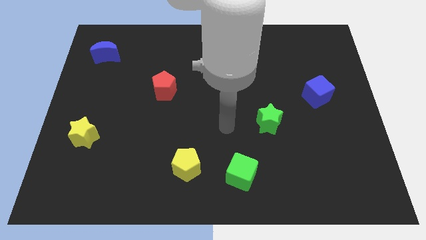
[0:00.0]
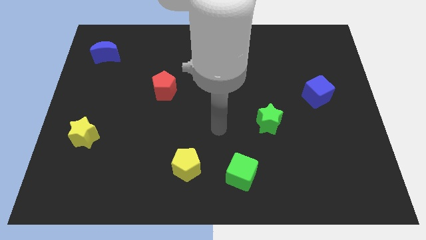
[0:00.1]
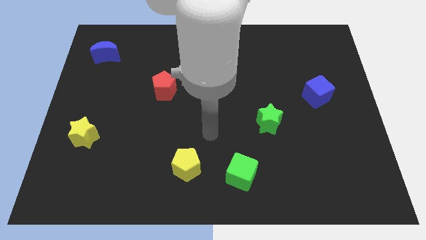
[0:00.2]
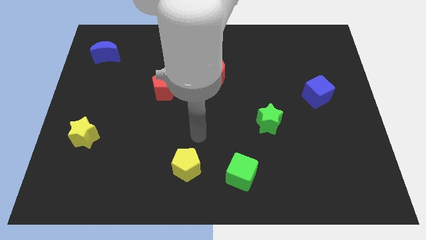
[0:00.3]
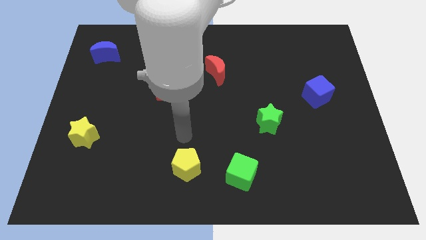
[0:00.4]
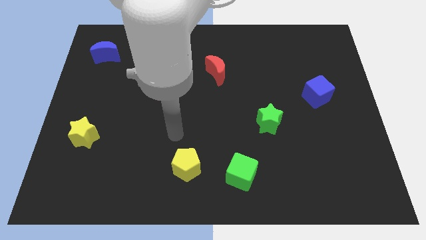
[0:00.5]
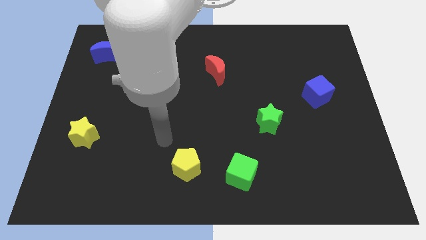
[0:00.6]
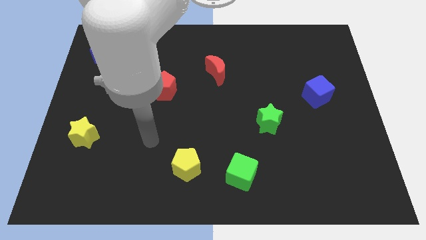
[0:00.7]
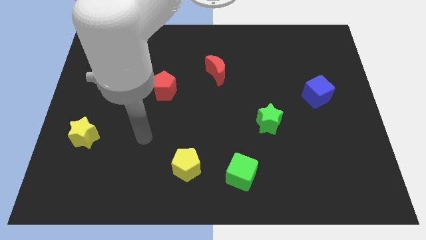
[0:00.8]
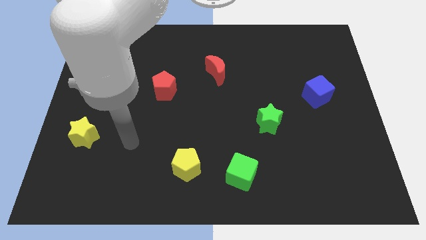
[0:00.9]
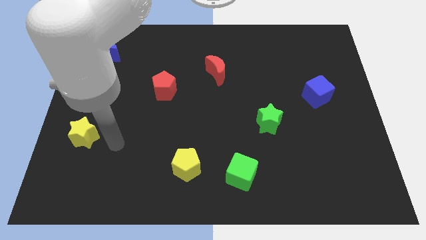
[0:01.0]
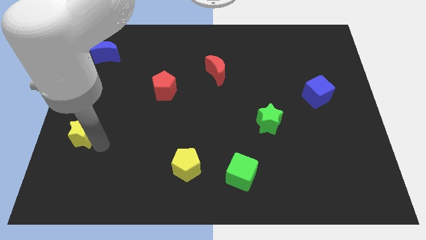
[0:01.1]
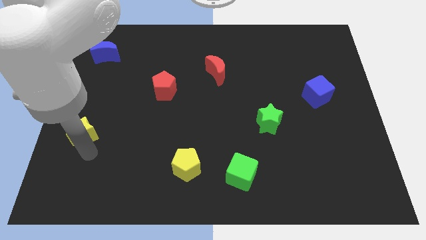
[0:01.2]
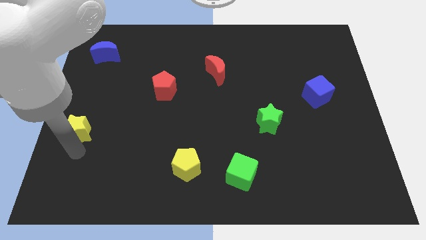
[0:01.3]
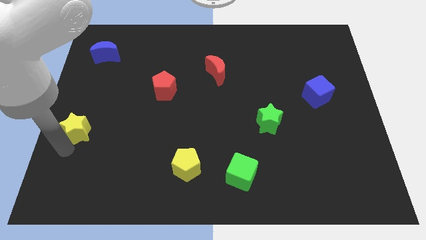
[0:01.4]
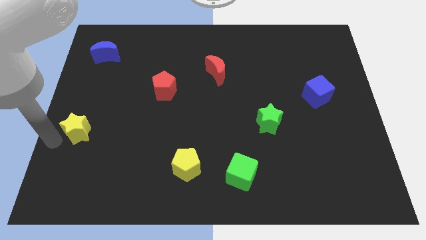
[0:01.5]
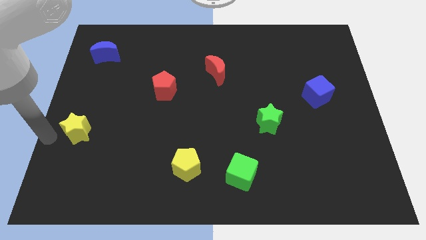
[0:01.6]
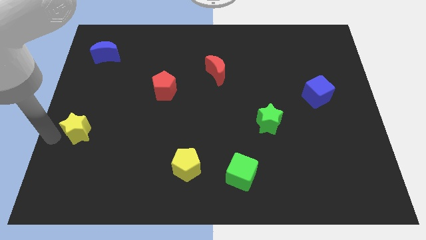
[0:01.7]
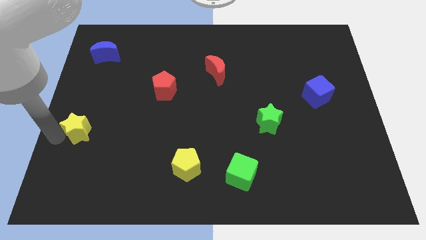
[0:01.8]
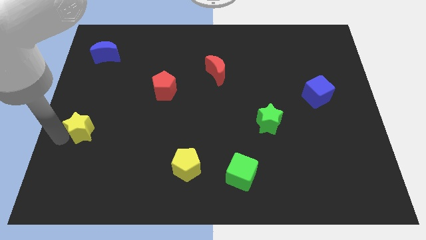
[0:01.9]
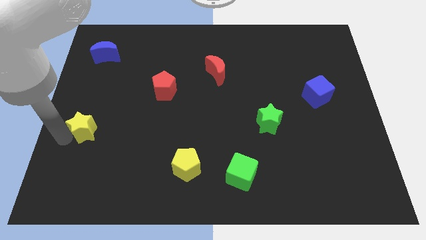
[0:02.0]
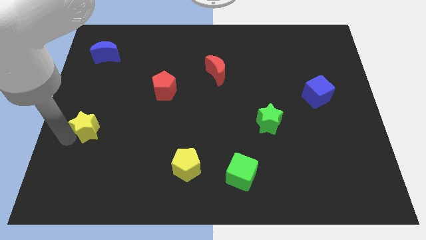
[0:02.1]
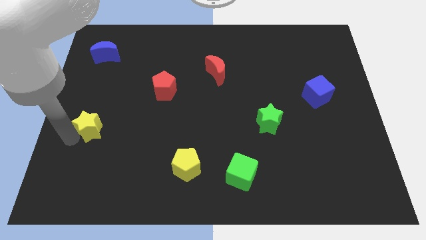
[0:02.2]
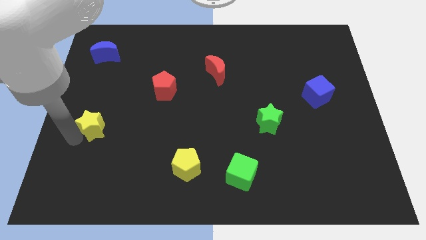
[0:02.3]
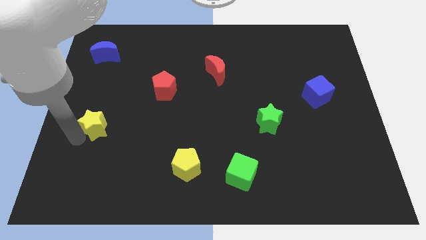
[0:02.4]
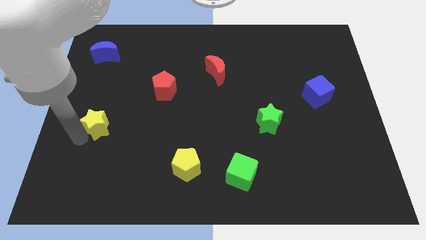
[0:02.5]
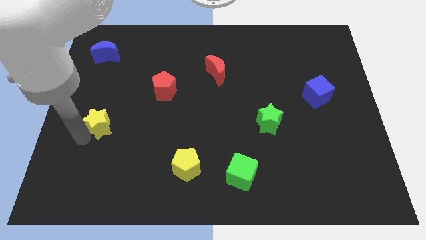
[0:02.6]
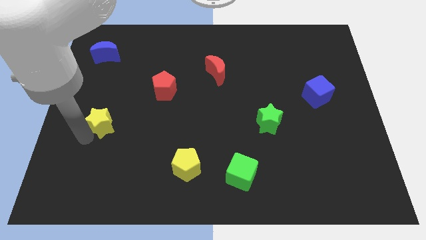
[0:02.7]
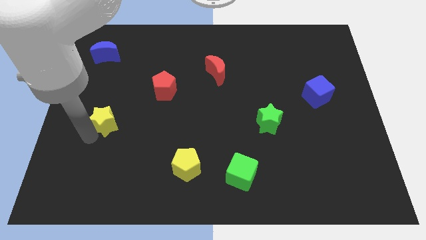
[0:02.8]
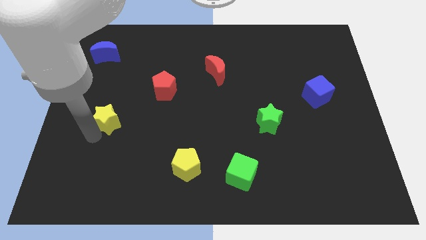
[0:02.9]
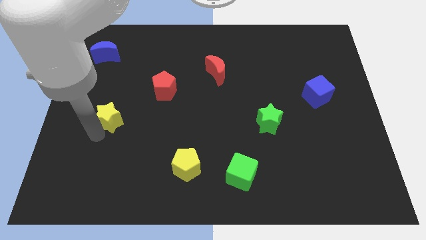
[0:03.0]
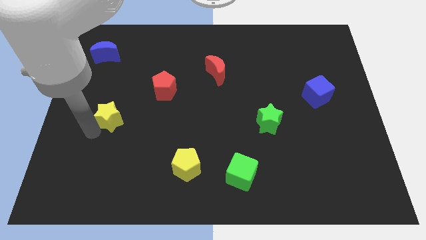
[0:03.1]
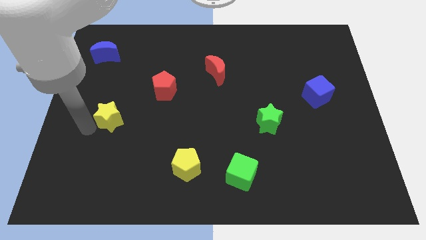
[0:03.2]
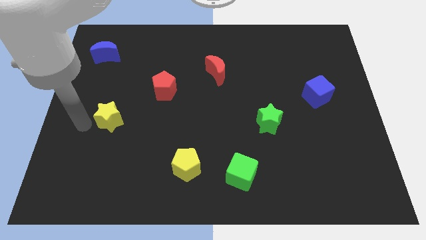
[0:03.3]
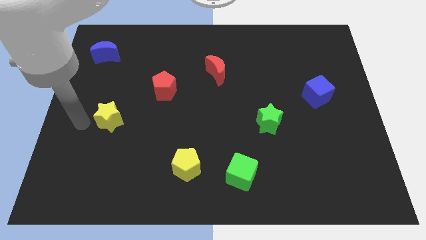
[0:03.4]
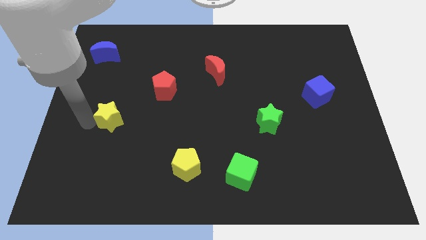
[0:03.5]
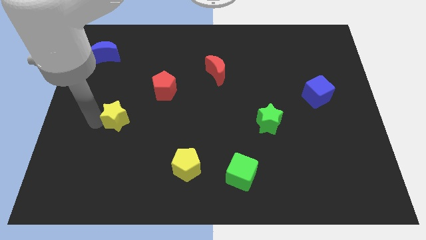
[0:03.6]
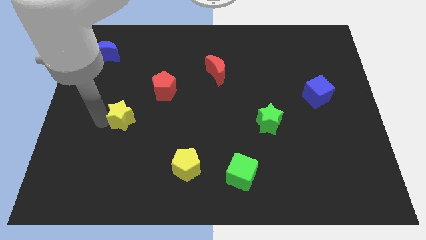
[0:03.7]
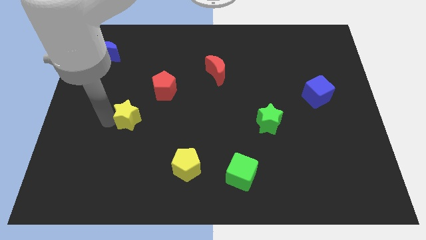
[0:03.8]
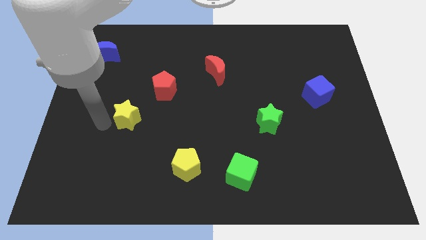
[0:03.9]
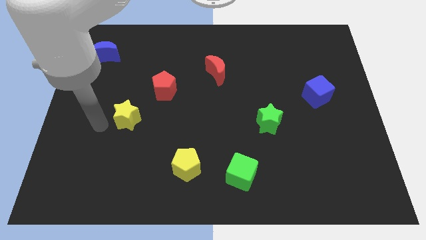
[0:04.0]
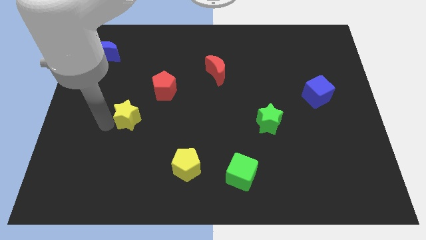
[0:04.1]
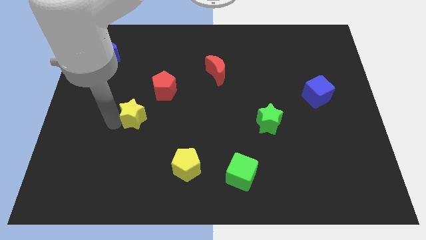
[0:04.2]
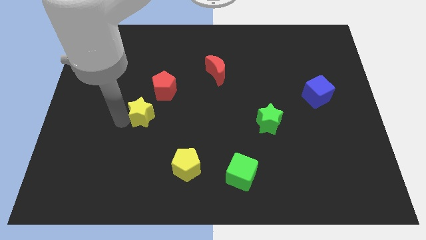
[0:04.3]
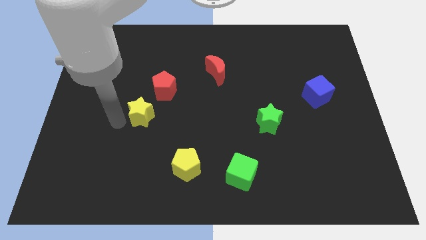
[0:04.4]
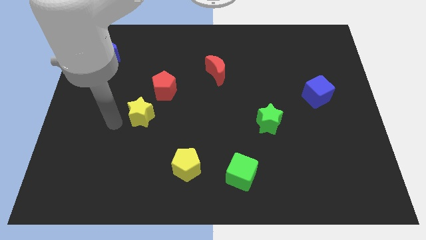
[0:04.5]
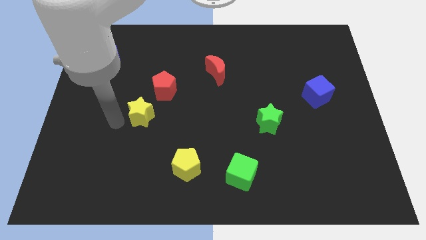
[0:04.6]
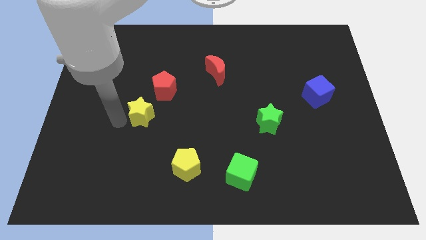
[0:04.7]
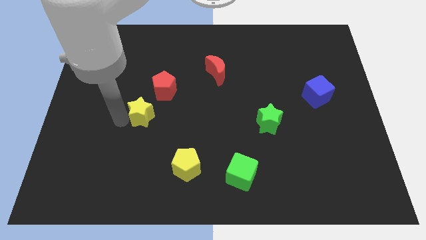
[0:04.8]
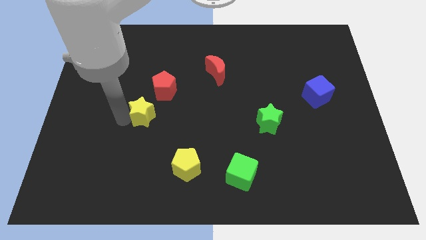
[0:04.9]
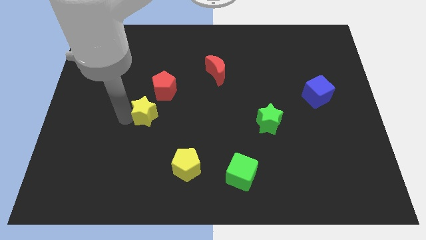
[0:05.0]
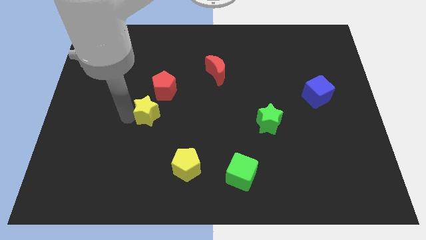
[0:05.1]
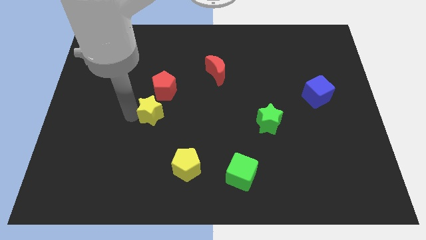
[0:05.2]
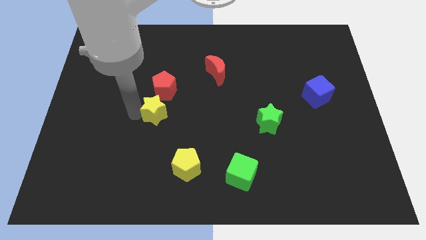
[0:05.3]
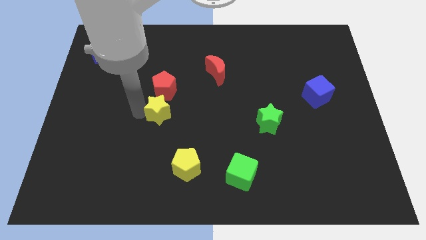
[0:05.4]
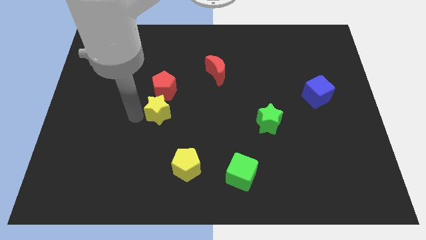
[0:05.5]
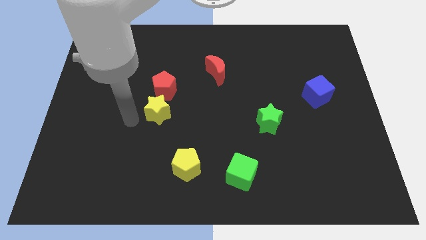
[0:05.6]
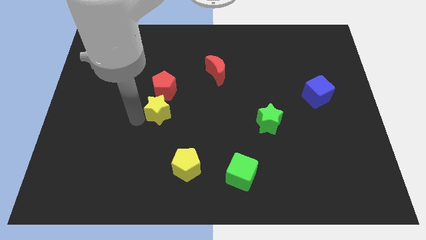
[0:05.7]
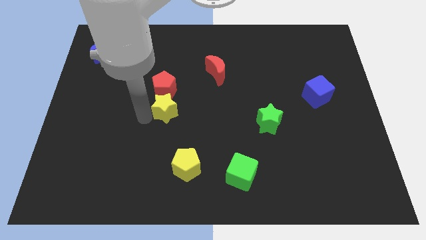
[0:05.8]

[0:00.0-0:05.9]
put the yellow star to the center

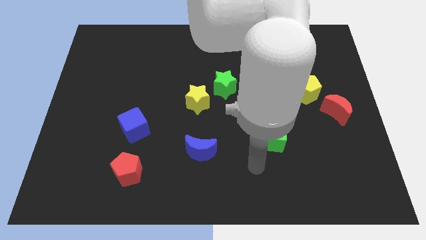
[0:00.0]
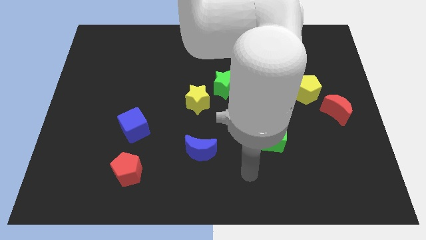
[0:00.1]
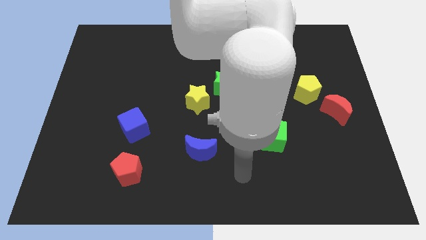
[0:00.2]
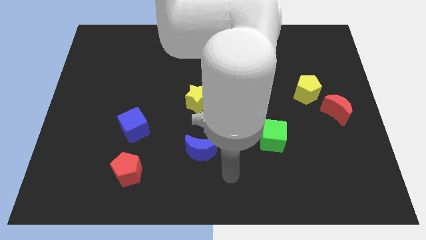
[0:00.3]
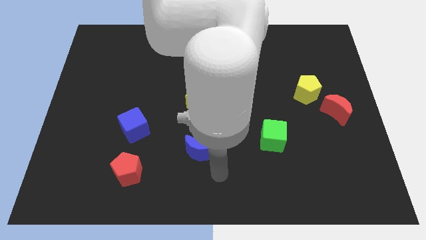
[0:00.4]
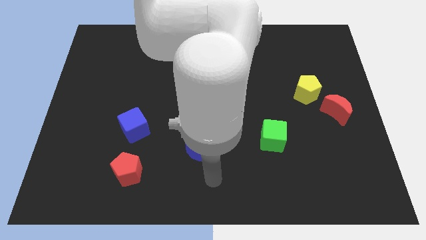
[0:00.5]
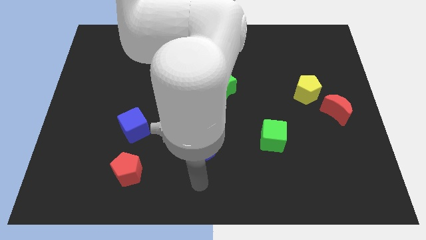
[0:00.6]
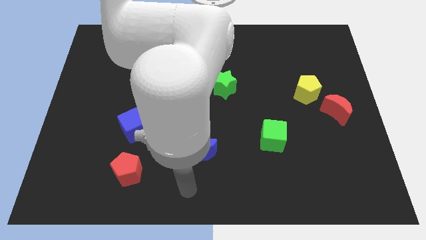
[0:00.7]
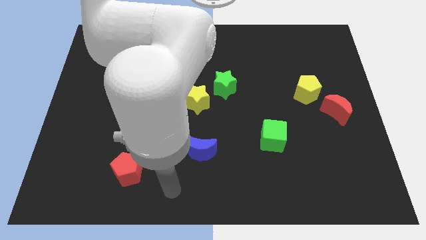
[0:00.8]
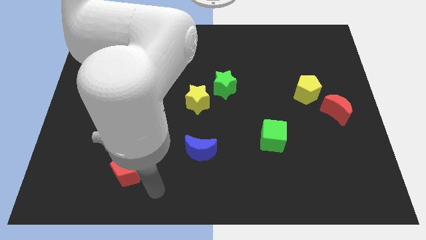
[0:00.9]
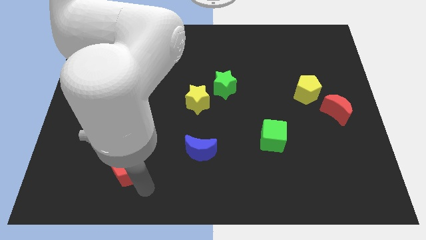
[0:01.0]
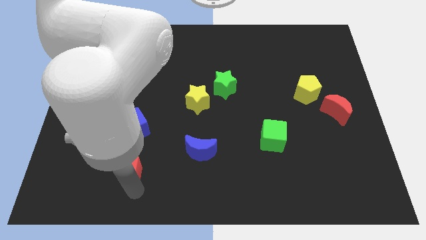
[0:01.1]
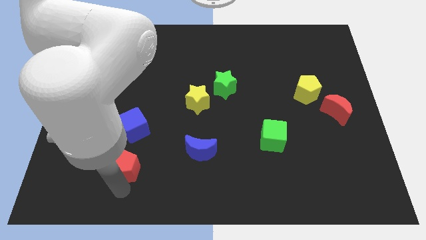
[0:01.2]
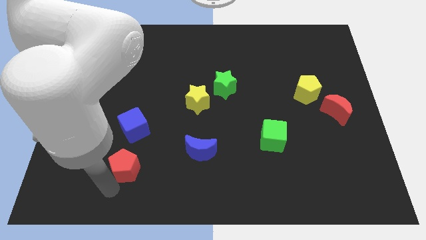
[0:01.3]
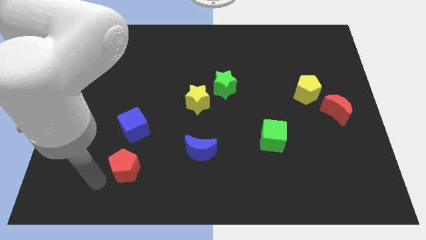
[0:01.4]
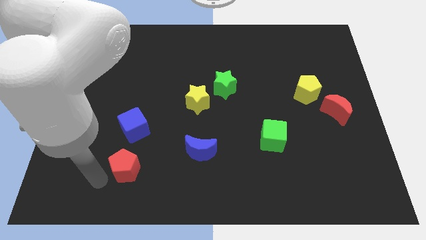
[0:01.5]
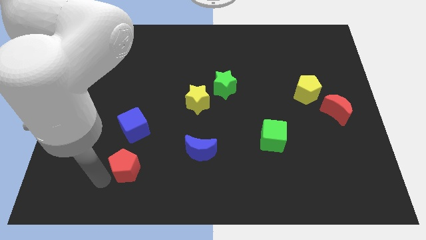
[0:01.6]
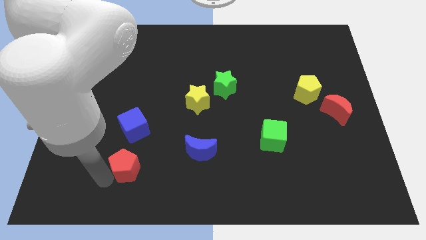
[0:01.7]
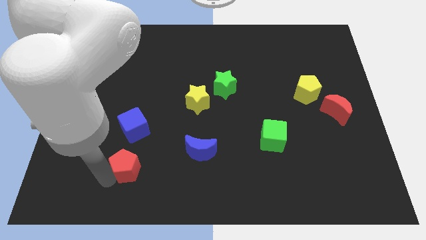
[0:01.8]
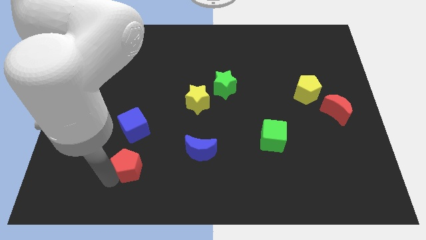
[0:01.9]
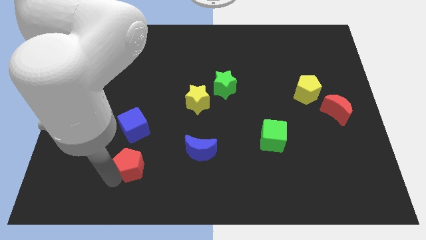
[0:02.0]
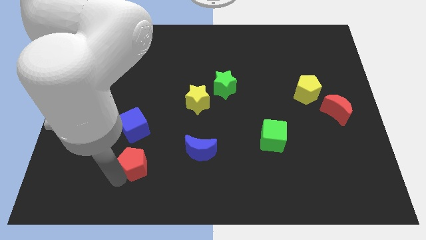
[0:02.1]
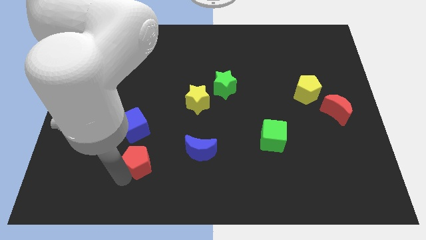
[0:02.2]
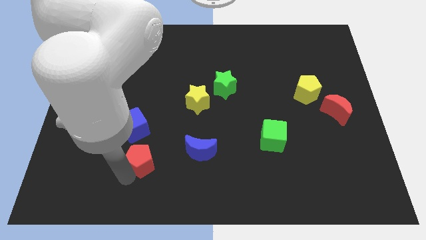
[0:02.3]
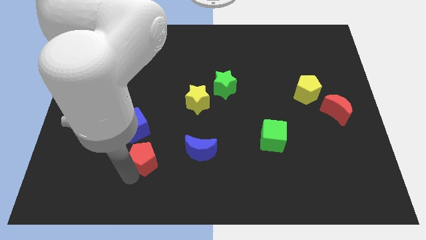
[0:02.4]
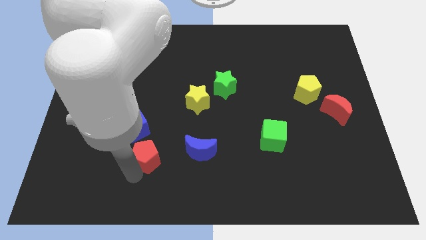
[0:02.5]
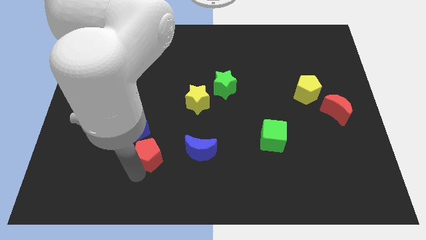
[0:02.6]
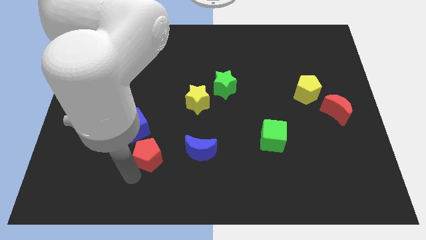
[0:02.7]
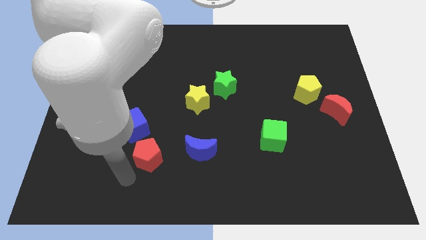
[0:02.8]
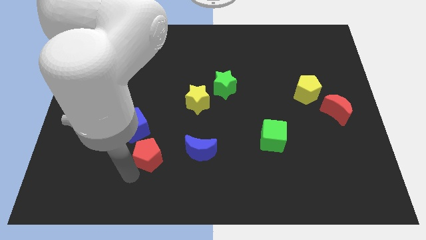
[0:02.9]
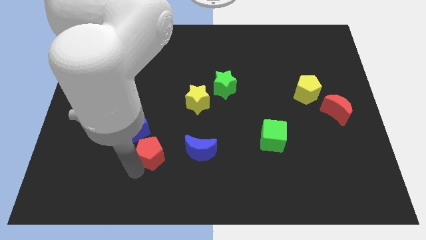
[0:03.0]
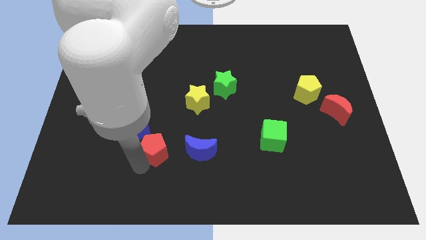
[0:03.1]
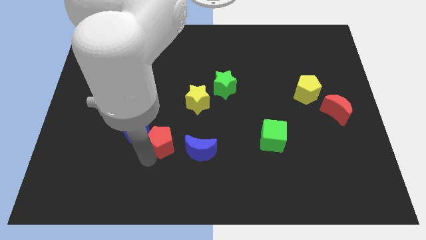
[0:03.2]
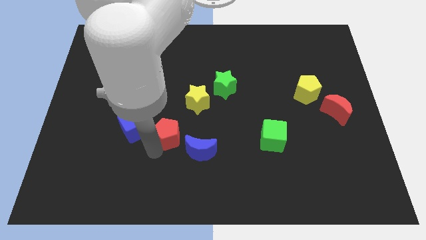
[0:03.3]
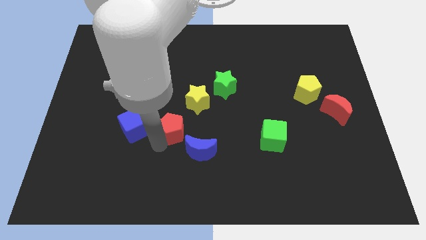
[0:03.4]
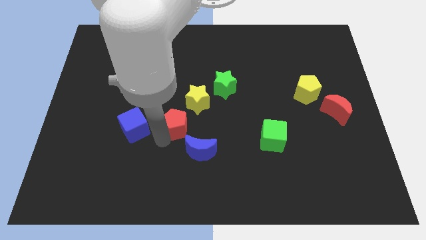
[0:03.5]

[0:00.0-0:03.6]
put the red pentagon to the middle
